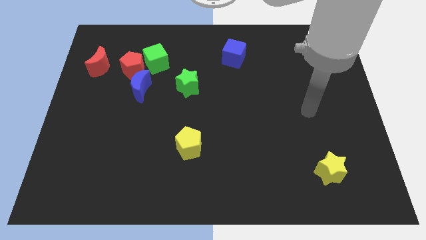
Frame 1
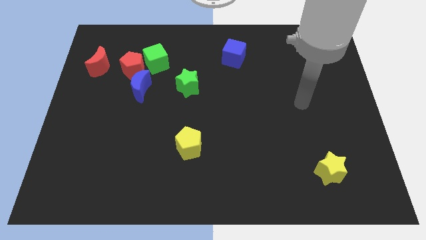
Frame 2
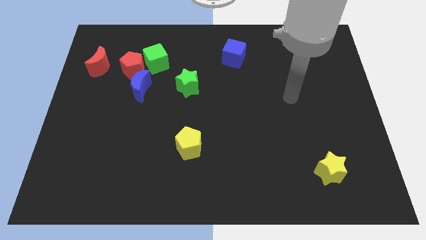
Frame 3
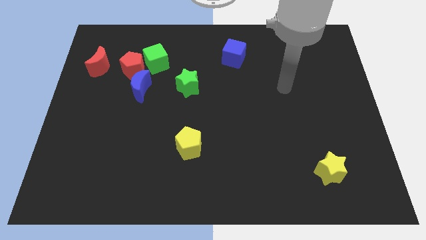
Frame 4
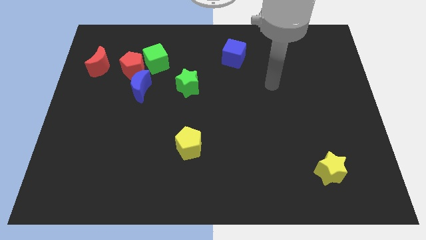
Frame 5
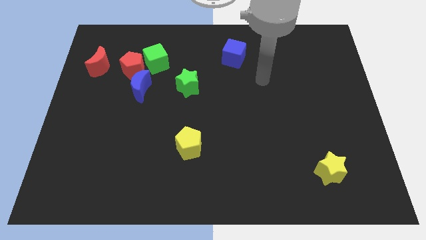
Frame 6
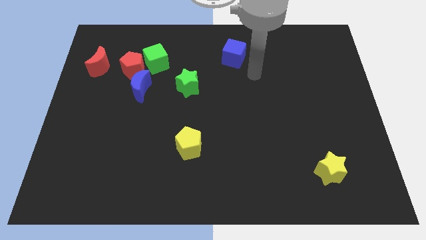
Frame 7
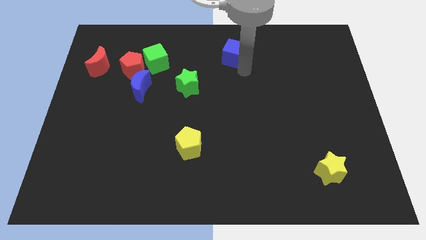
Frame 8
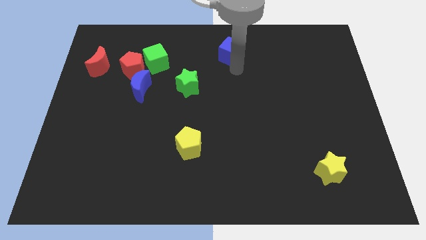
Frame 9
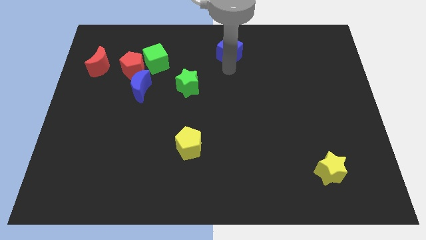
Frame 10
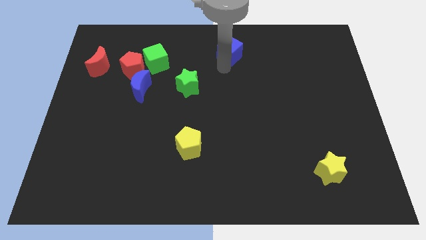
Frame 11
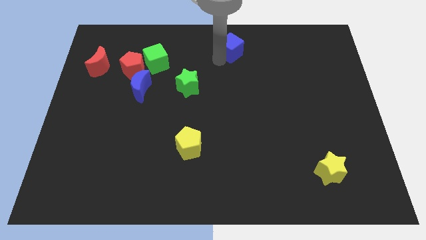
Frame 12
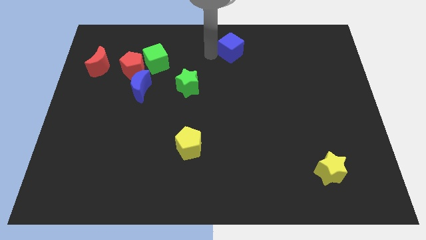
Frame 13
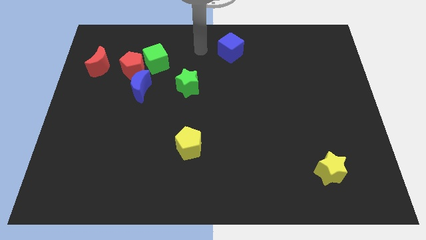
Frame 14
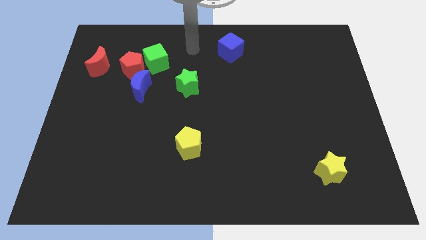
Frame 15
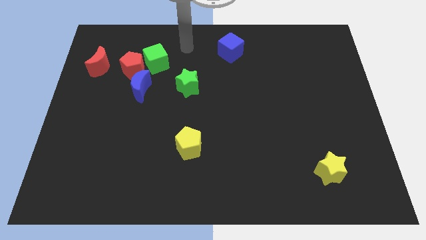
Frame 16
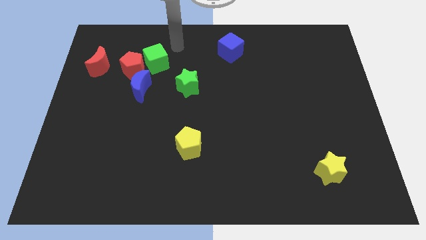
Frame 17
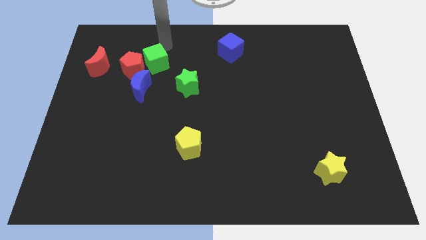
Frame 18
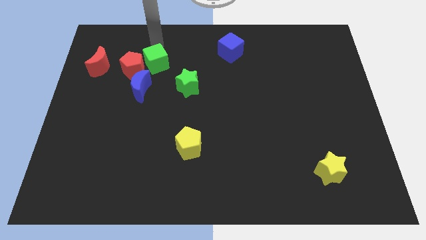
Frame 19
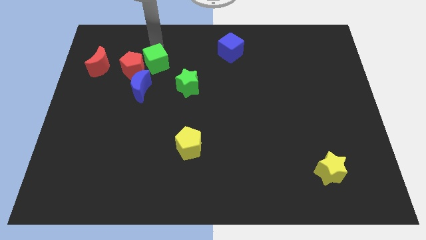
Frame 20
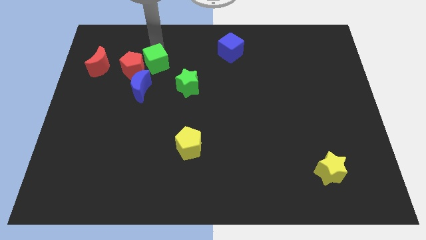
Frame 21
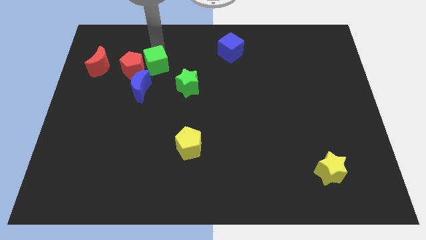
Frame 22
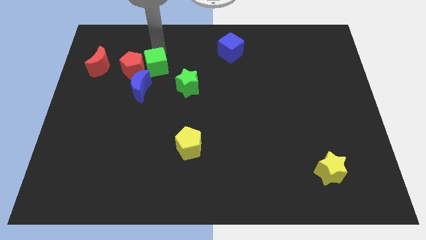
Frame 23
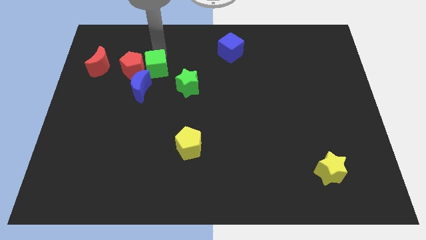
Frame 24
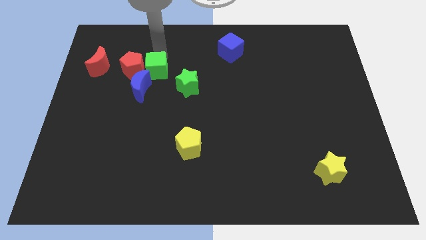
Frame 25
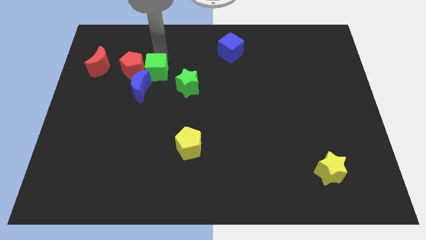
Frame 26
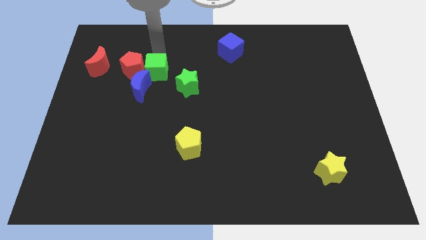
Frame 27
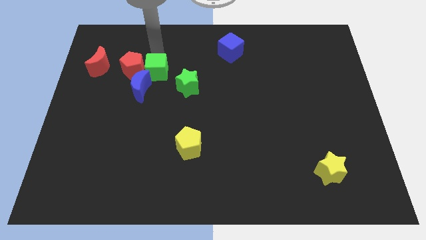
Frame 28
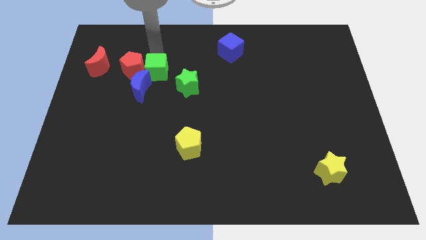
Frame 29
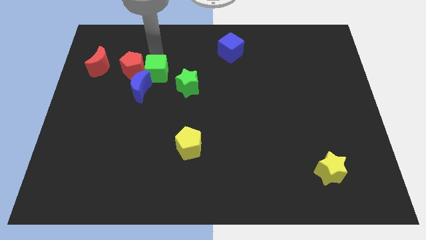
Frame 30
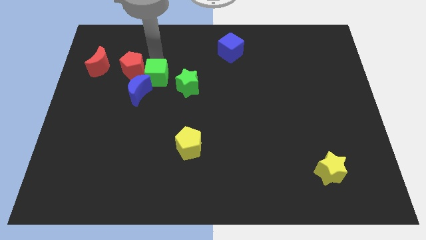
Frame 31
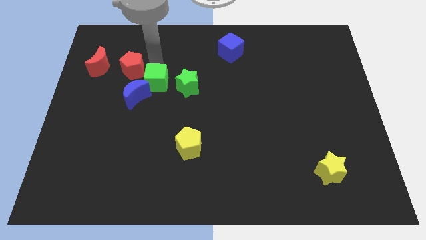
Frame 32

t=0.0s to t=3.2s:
push the green cube a bit downwards

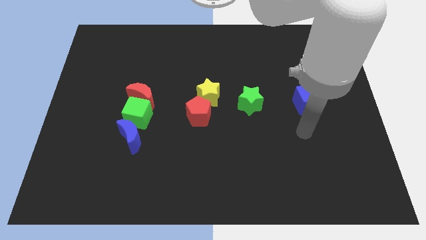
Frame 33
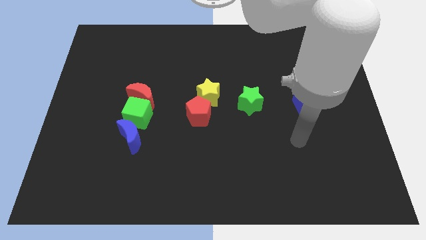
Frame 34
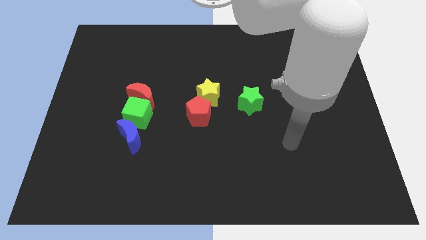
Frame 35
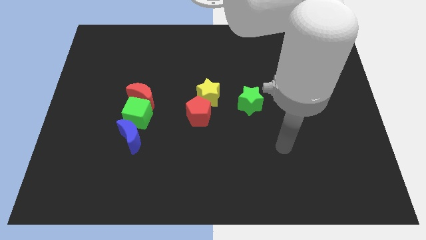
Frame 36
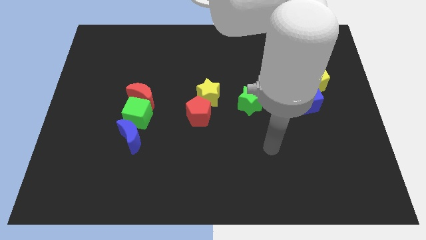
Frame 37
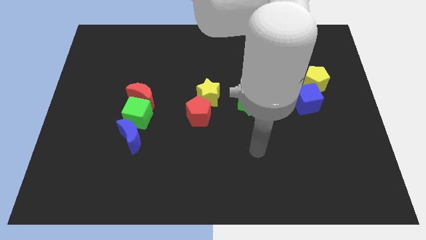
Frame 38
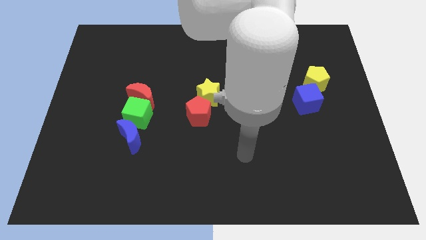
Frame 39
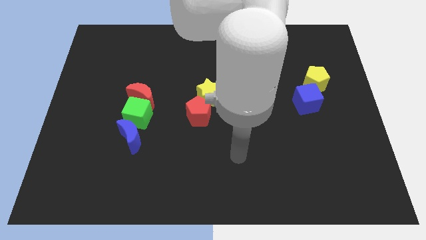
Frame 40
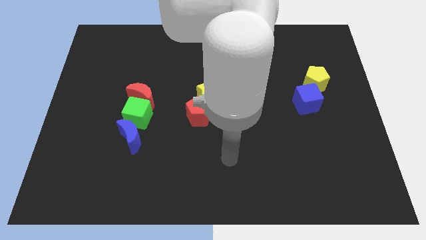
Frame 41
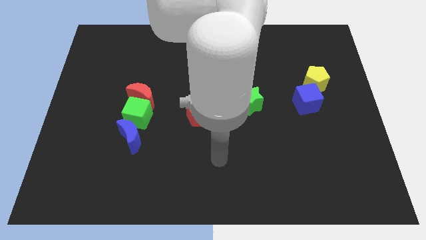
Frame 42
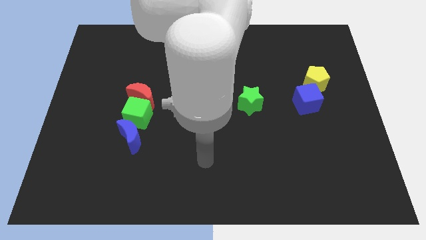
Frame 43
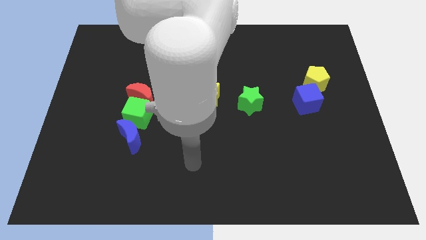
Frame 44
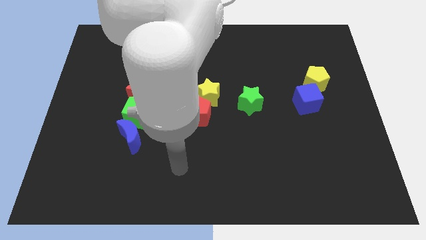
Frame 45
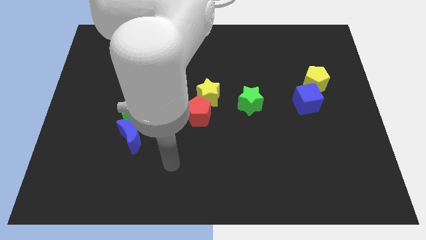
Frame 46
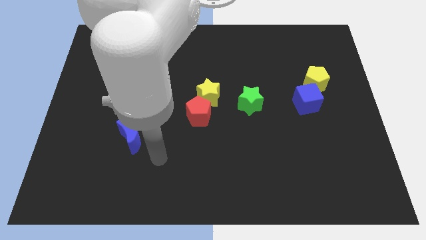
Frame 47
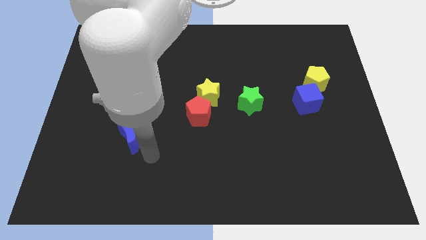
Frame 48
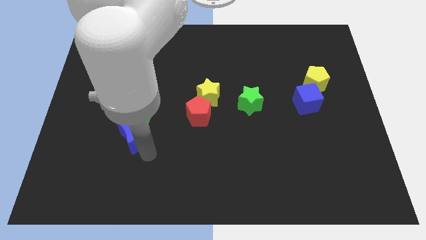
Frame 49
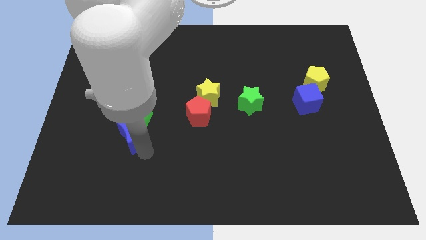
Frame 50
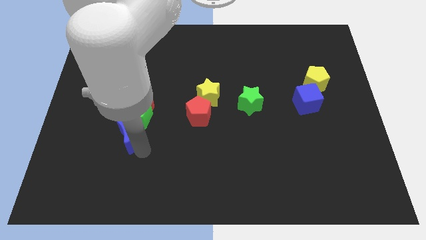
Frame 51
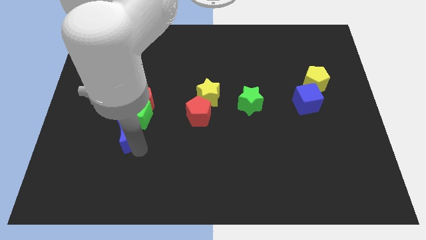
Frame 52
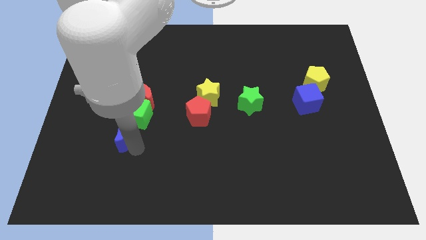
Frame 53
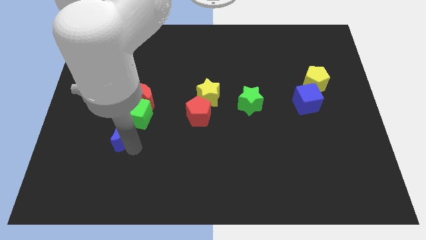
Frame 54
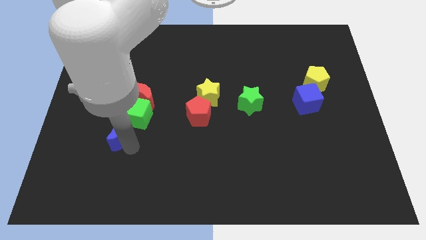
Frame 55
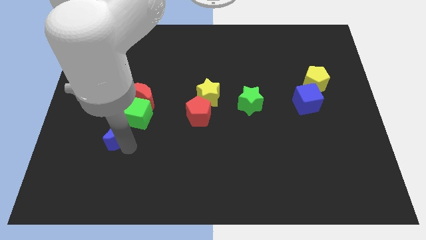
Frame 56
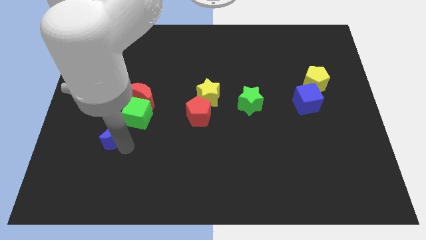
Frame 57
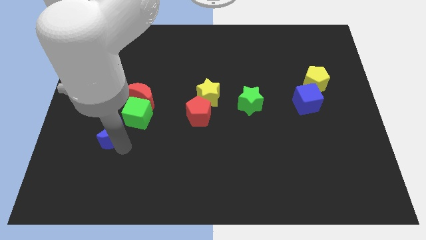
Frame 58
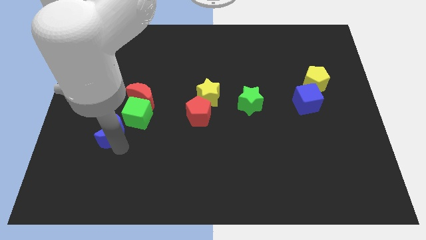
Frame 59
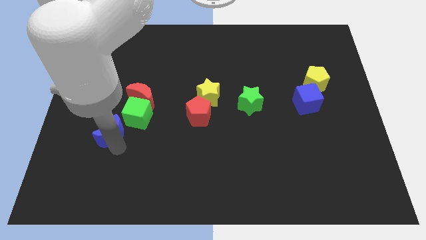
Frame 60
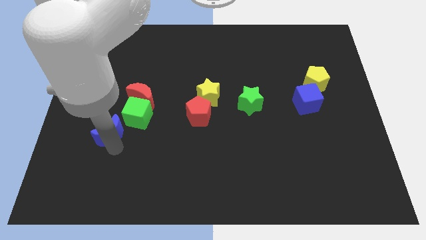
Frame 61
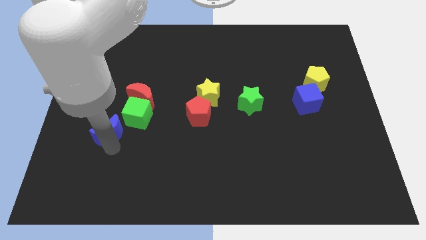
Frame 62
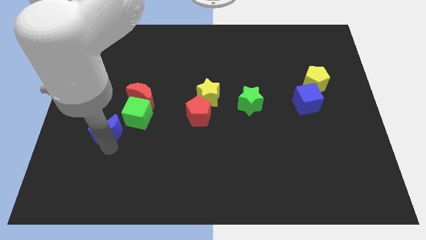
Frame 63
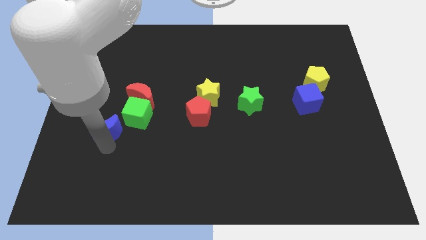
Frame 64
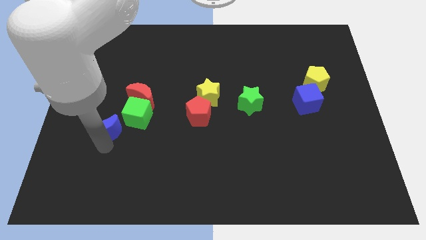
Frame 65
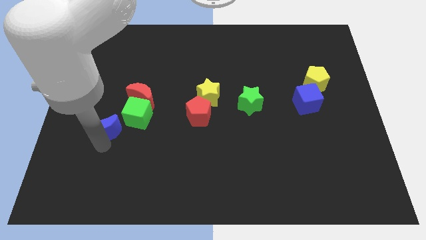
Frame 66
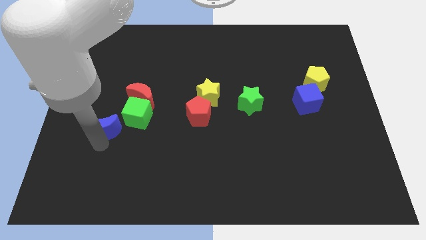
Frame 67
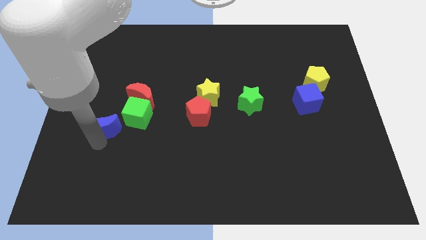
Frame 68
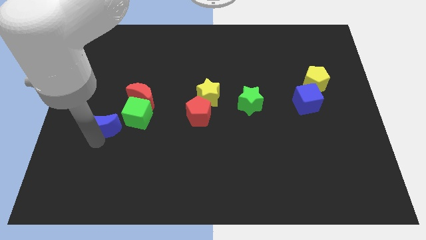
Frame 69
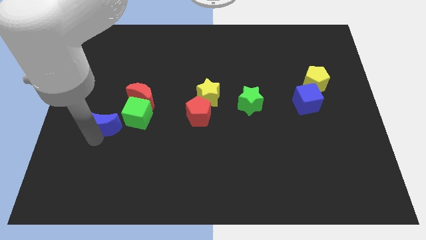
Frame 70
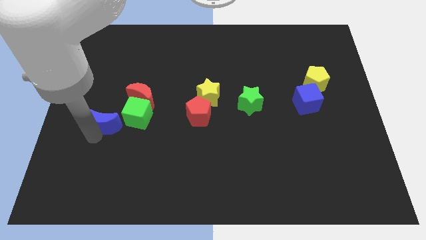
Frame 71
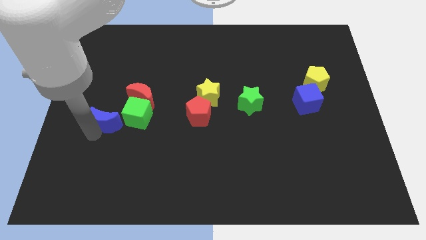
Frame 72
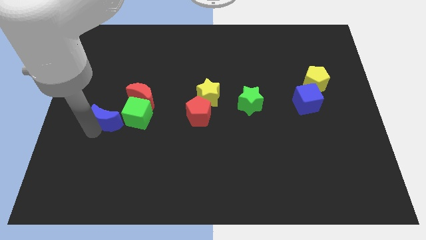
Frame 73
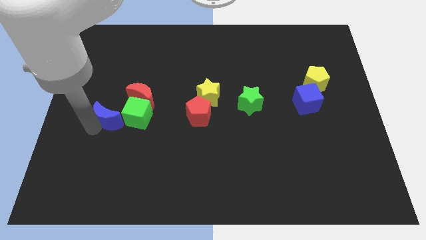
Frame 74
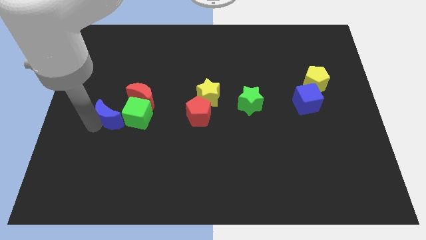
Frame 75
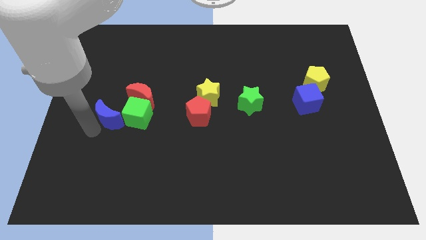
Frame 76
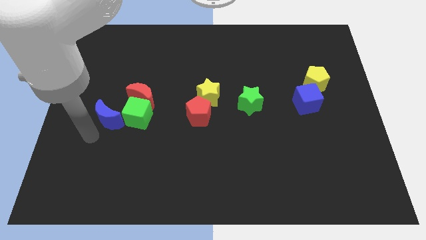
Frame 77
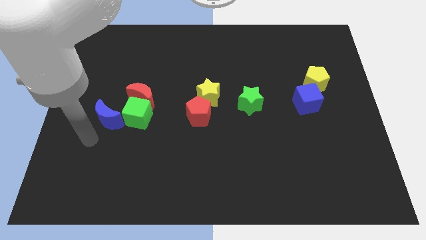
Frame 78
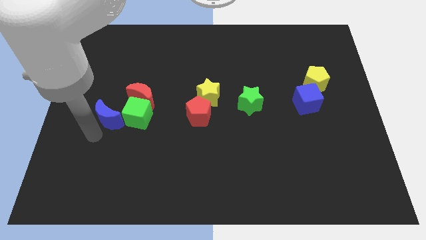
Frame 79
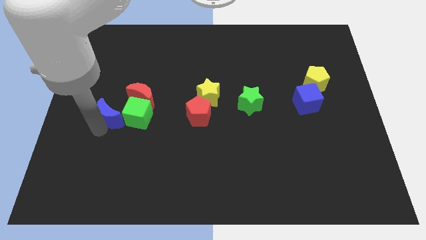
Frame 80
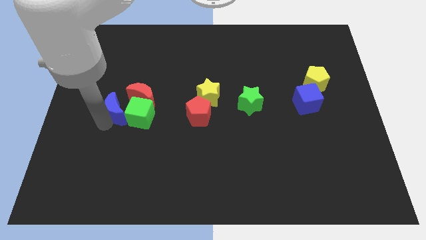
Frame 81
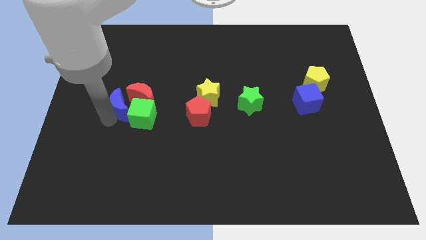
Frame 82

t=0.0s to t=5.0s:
slide the blue moon up a bit
